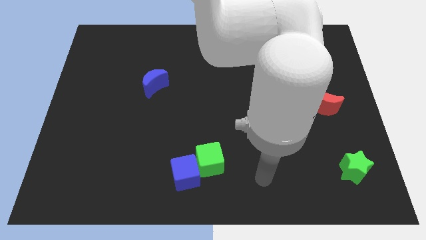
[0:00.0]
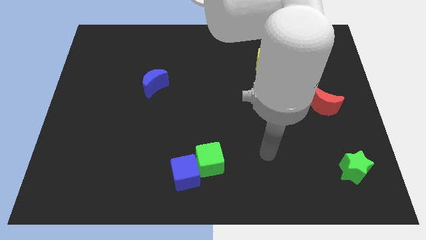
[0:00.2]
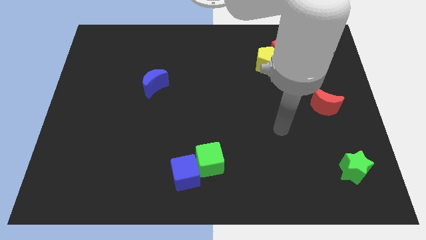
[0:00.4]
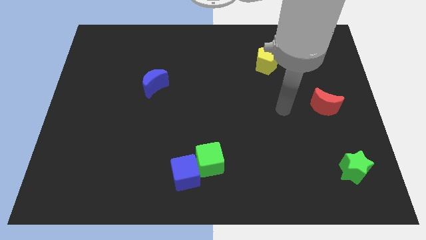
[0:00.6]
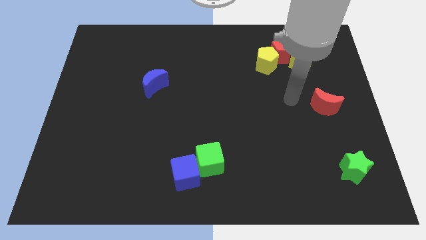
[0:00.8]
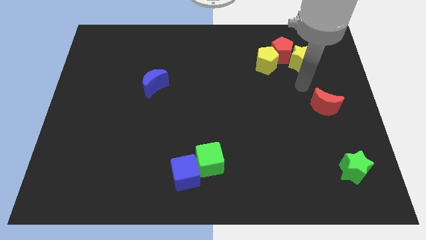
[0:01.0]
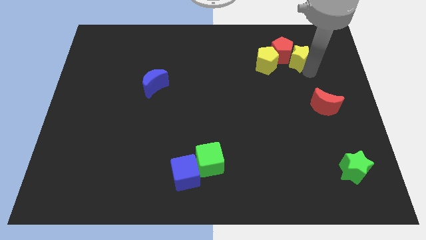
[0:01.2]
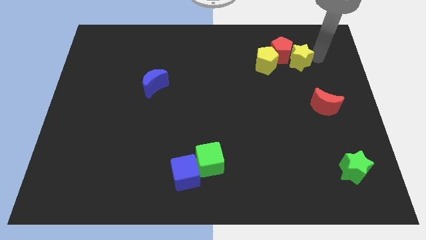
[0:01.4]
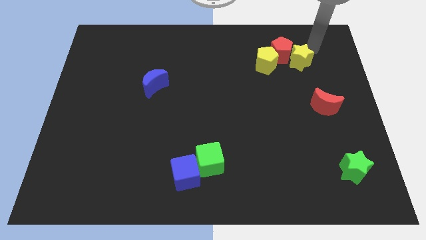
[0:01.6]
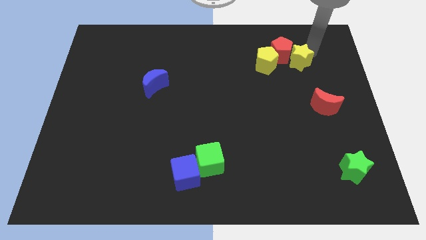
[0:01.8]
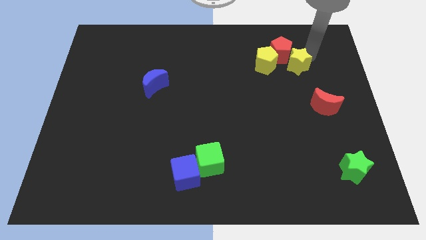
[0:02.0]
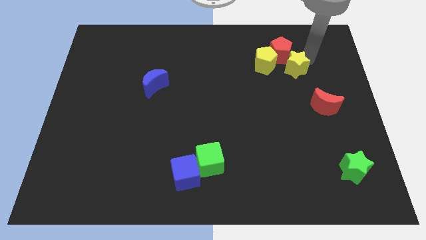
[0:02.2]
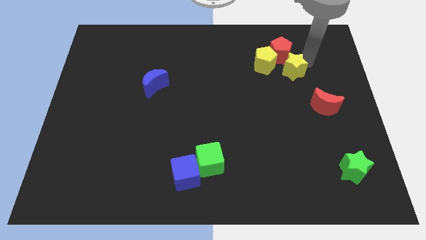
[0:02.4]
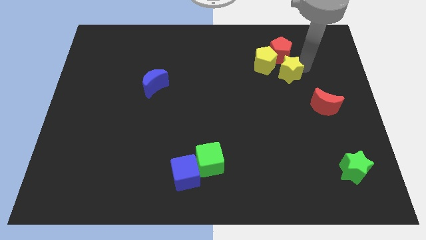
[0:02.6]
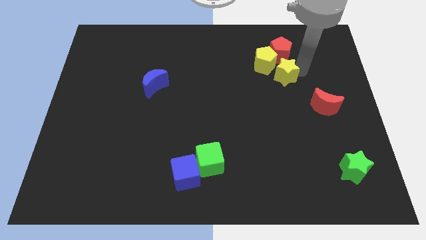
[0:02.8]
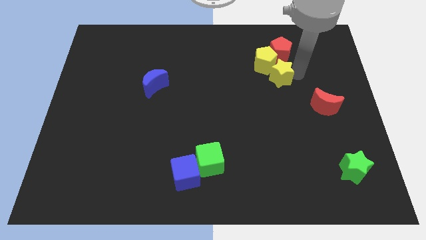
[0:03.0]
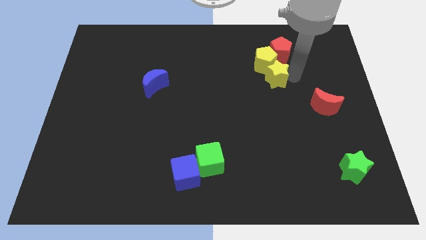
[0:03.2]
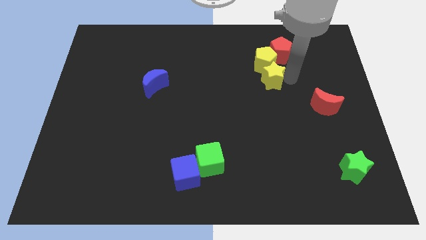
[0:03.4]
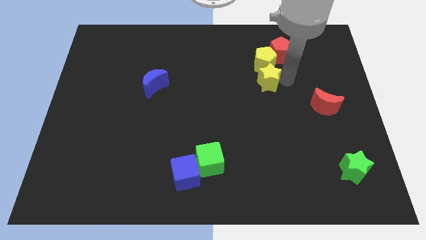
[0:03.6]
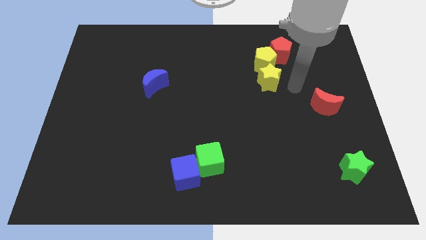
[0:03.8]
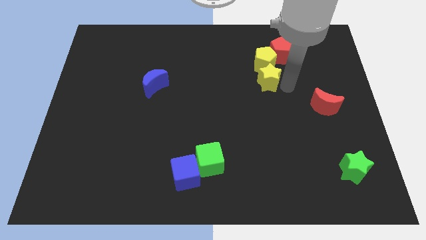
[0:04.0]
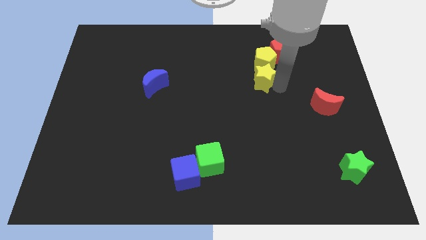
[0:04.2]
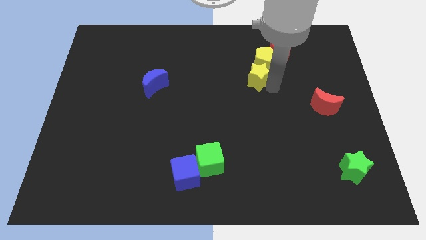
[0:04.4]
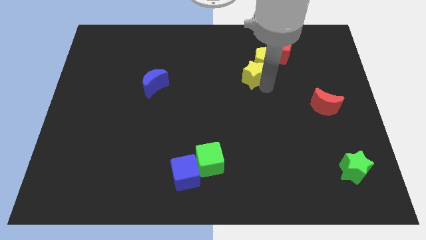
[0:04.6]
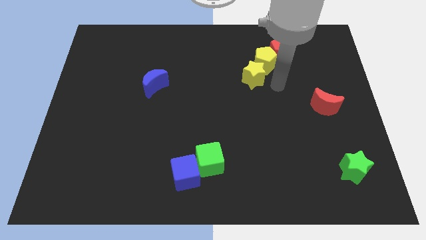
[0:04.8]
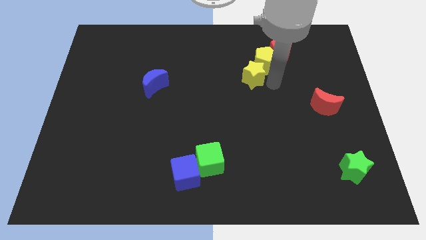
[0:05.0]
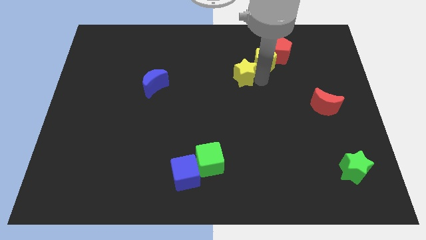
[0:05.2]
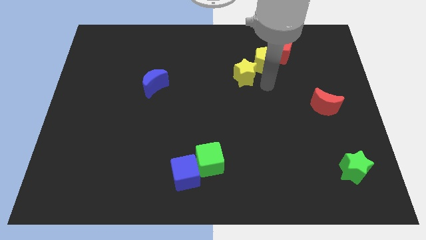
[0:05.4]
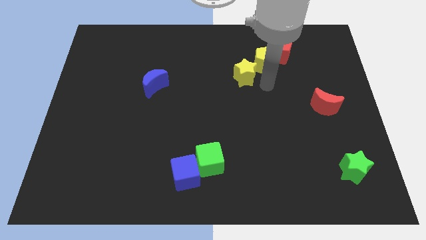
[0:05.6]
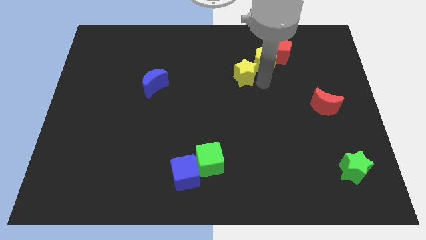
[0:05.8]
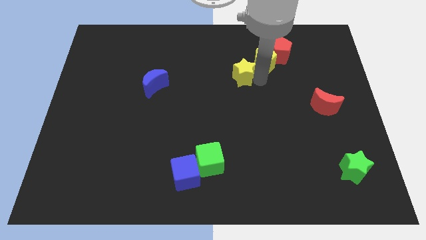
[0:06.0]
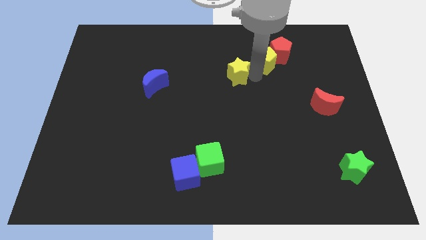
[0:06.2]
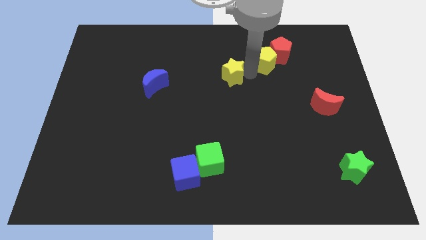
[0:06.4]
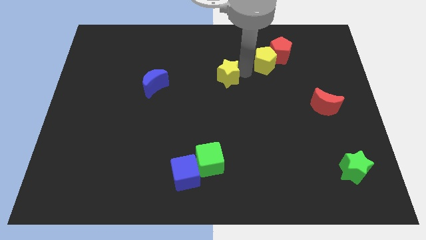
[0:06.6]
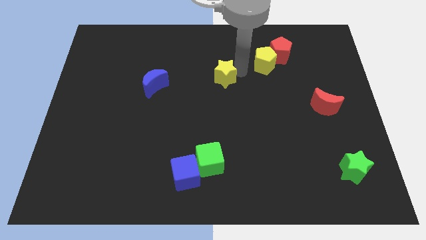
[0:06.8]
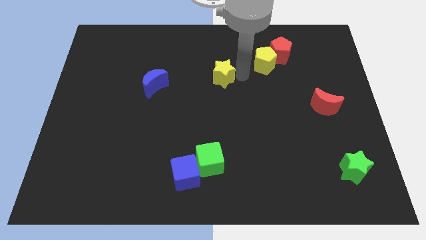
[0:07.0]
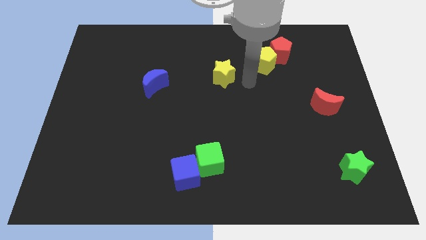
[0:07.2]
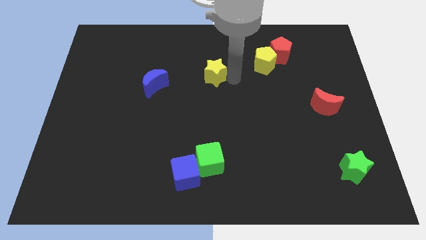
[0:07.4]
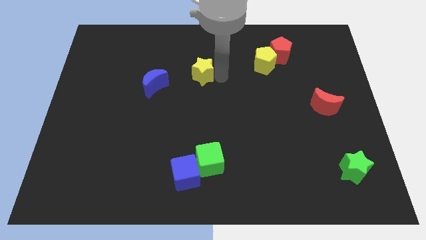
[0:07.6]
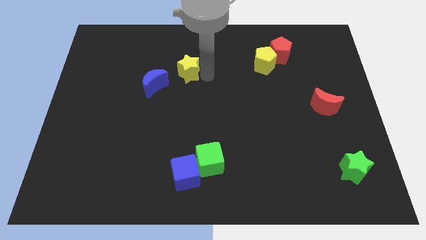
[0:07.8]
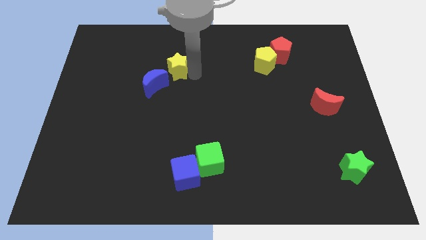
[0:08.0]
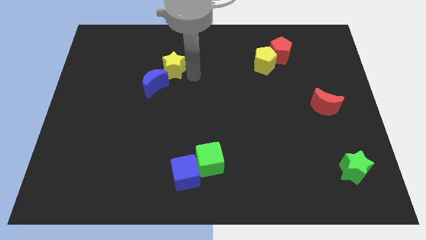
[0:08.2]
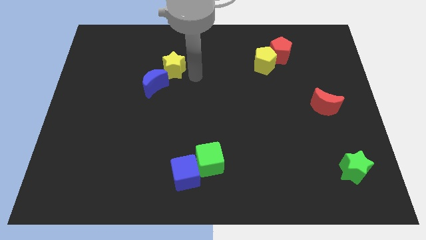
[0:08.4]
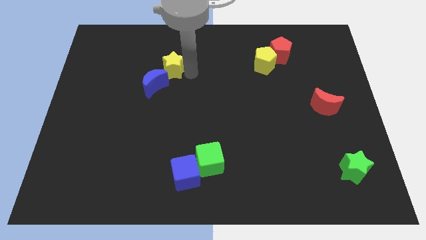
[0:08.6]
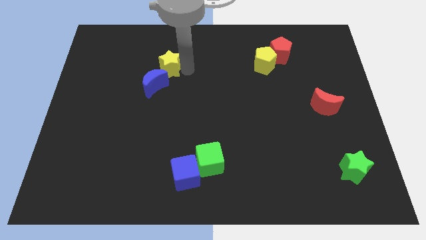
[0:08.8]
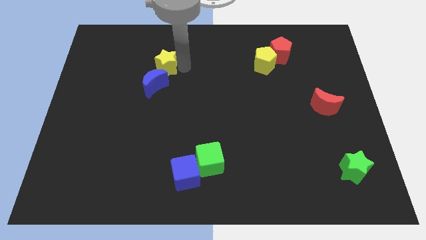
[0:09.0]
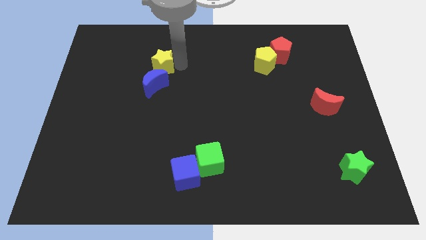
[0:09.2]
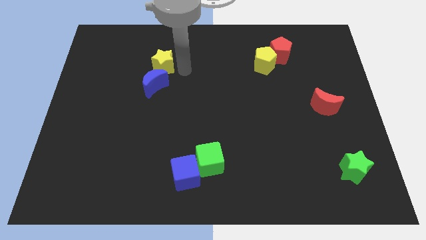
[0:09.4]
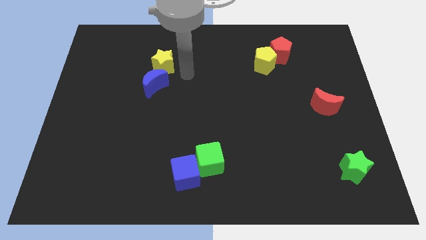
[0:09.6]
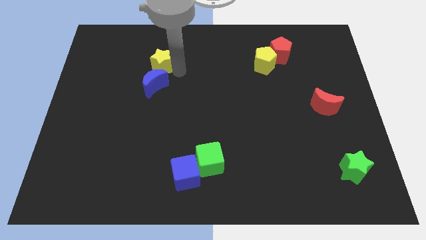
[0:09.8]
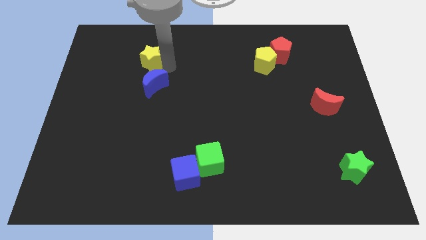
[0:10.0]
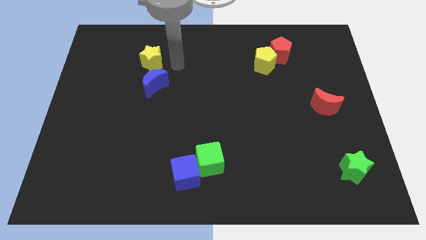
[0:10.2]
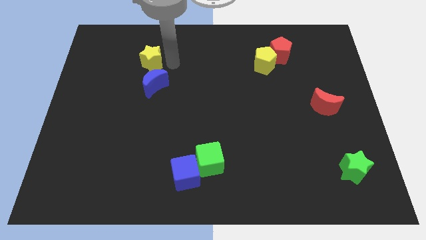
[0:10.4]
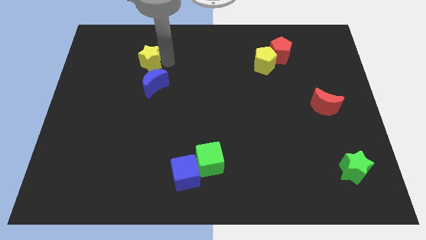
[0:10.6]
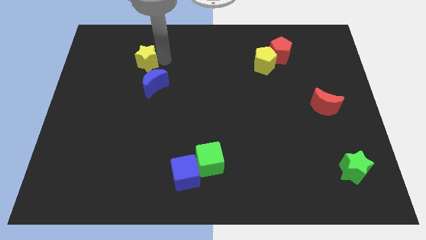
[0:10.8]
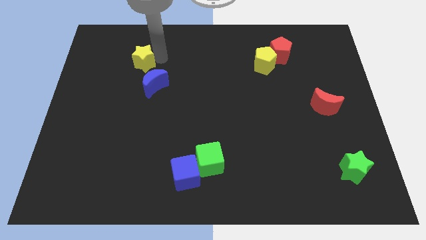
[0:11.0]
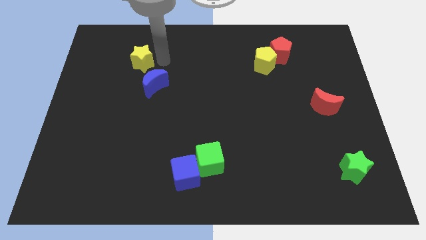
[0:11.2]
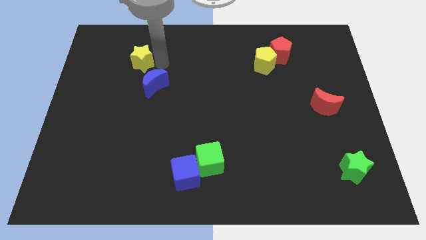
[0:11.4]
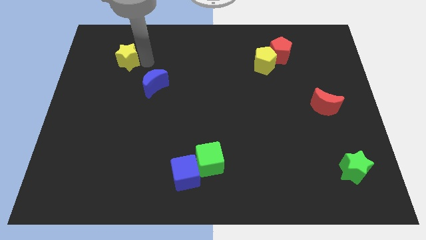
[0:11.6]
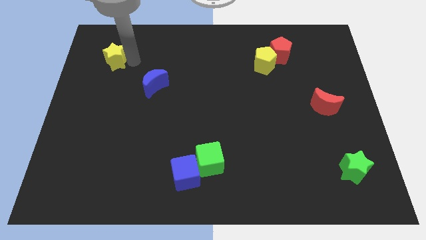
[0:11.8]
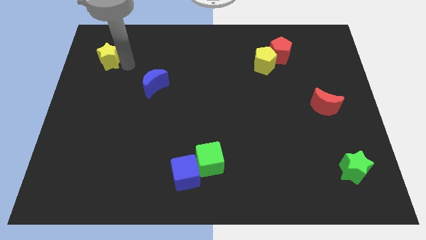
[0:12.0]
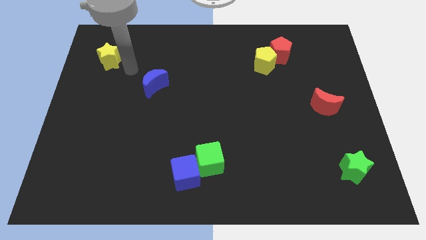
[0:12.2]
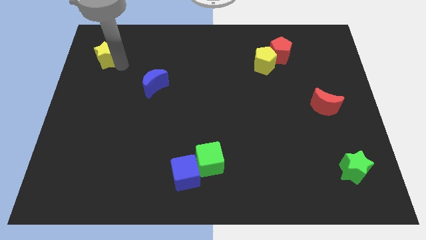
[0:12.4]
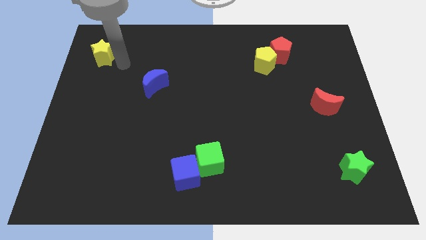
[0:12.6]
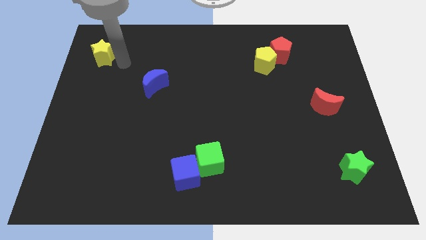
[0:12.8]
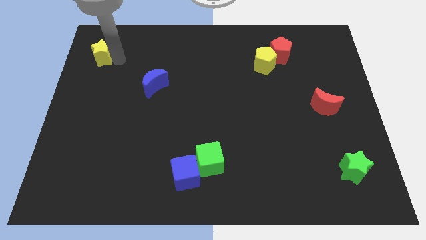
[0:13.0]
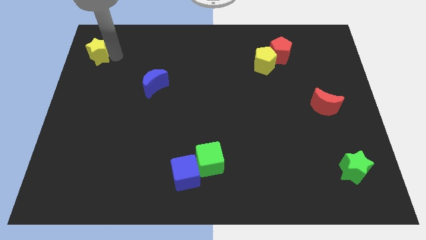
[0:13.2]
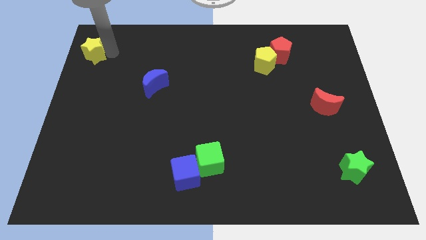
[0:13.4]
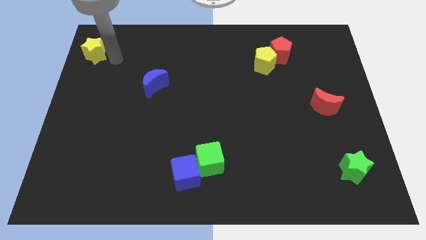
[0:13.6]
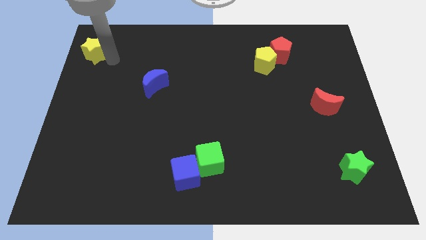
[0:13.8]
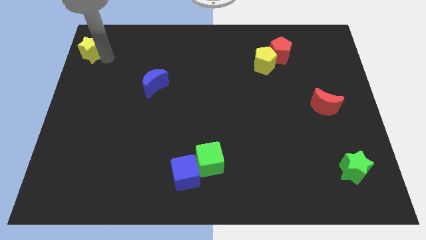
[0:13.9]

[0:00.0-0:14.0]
move the yellow star to the top left corner
